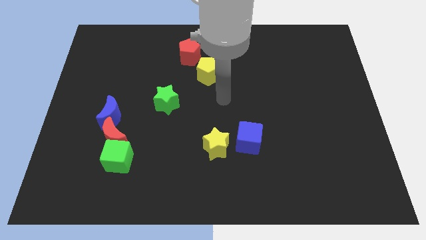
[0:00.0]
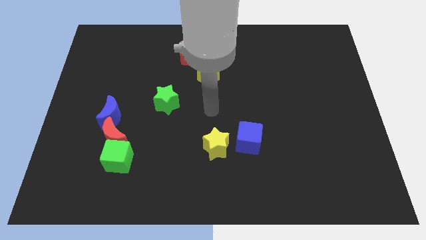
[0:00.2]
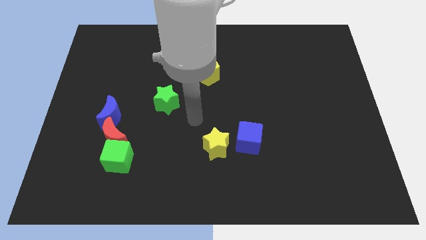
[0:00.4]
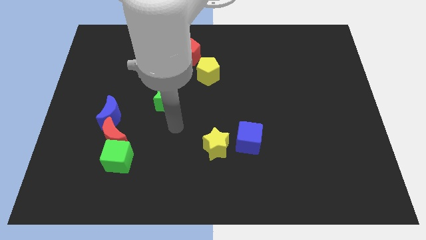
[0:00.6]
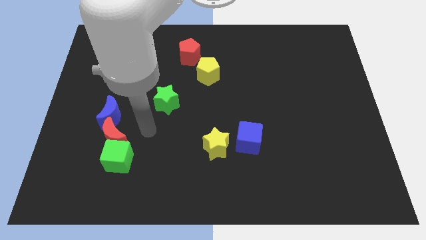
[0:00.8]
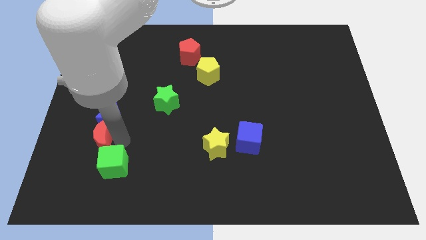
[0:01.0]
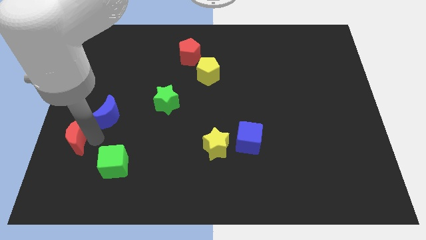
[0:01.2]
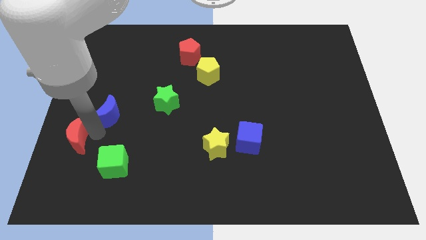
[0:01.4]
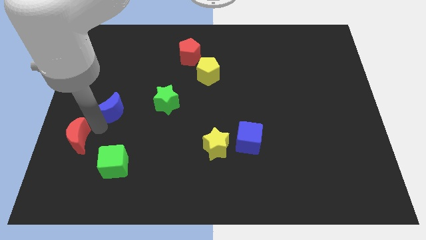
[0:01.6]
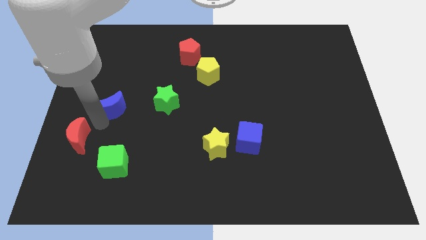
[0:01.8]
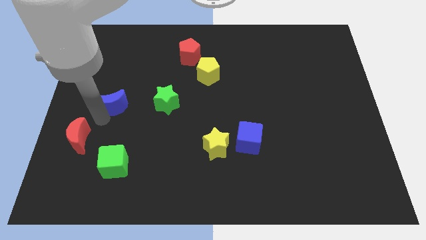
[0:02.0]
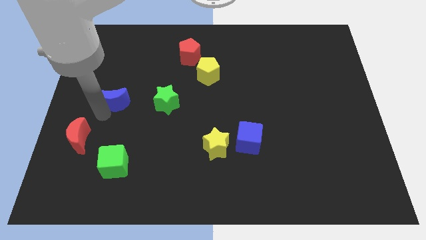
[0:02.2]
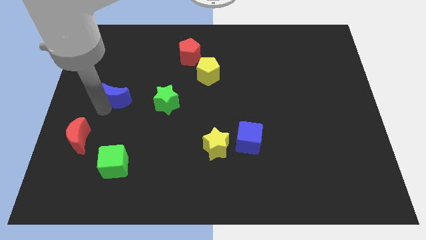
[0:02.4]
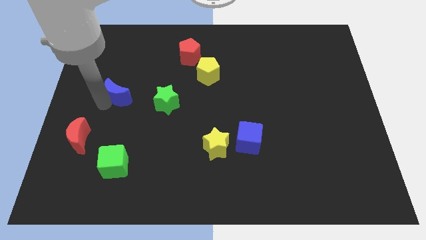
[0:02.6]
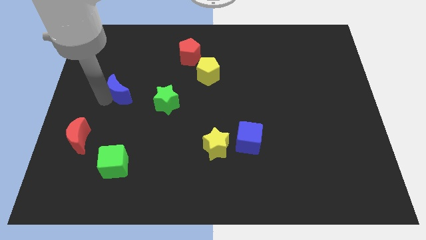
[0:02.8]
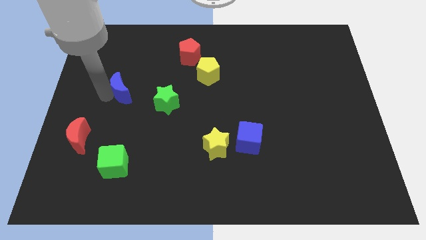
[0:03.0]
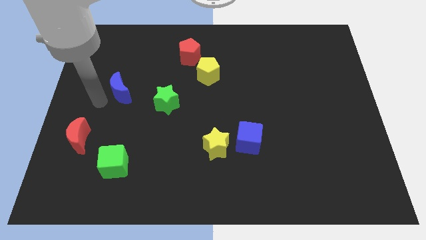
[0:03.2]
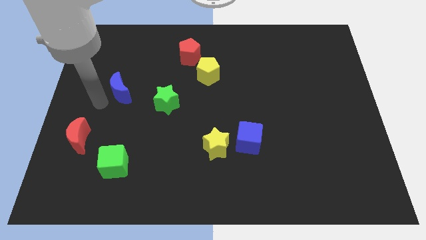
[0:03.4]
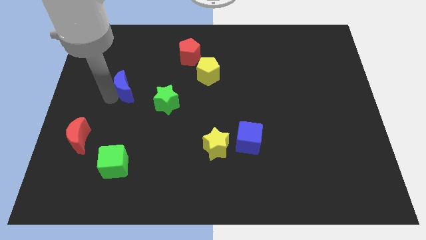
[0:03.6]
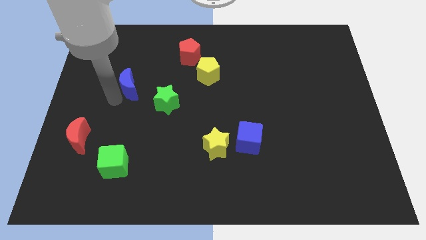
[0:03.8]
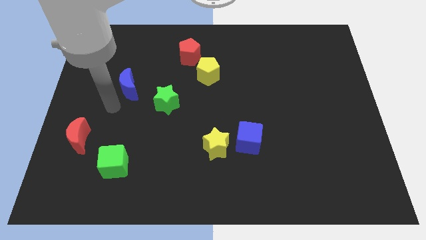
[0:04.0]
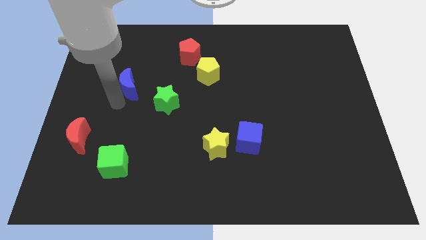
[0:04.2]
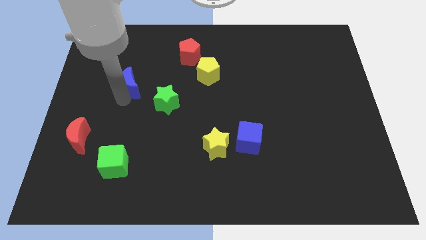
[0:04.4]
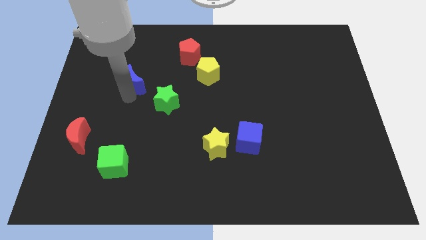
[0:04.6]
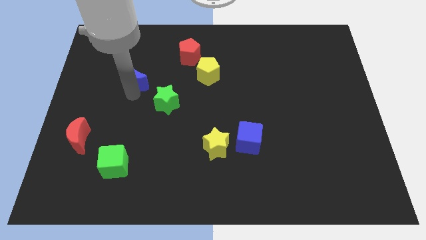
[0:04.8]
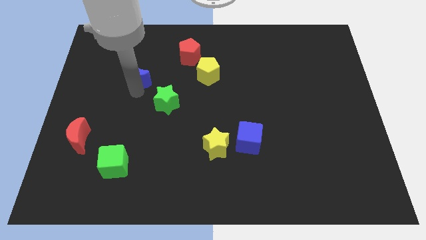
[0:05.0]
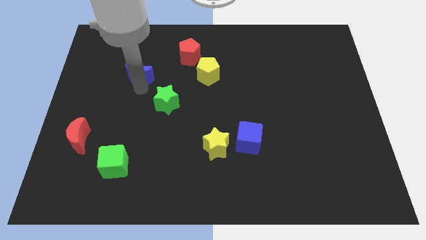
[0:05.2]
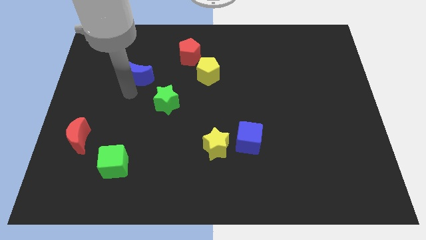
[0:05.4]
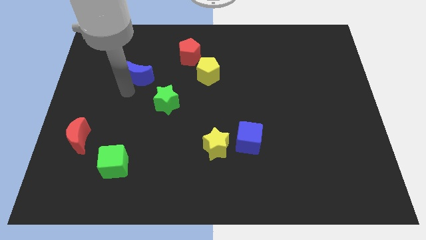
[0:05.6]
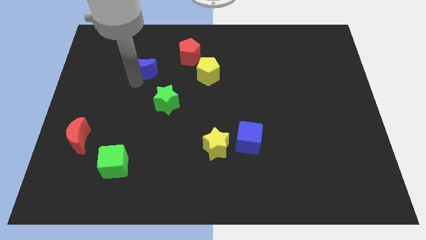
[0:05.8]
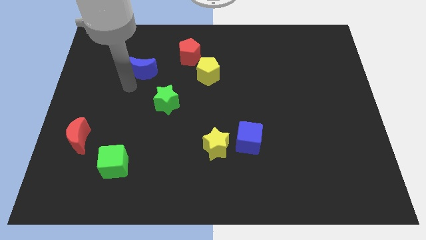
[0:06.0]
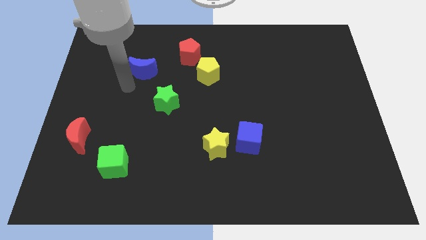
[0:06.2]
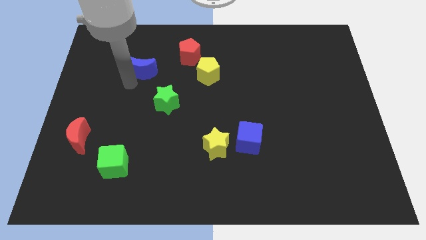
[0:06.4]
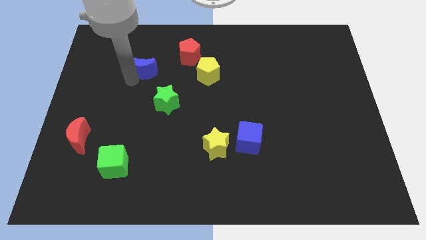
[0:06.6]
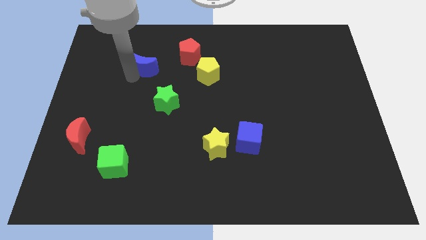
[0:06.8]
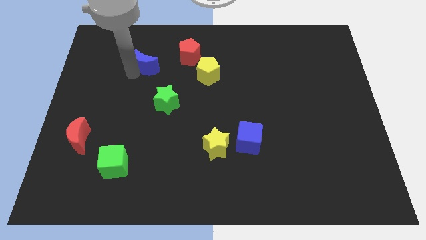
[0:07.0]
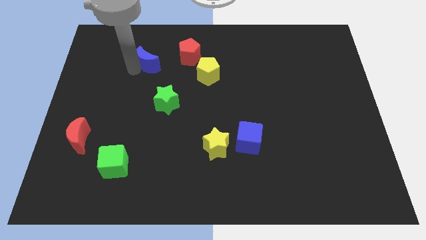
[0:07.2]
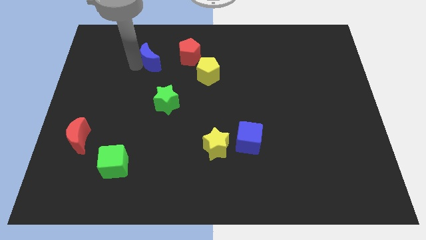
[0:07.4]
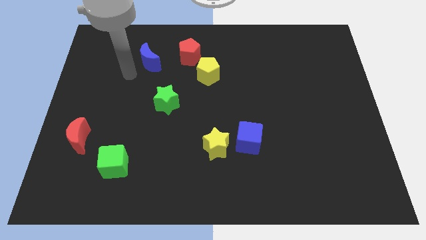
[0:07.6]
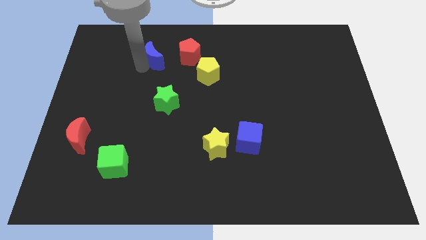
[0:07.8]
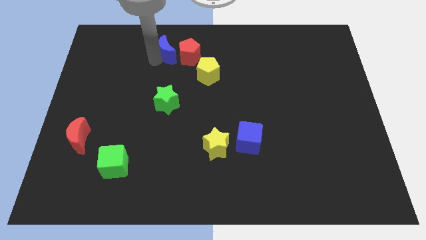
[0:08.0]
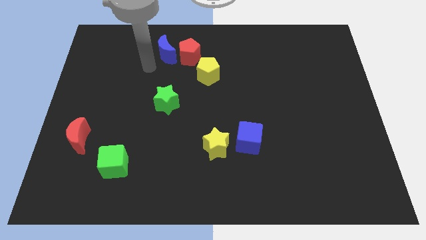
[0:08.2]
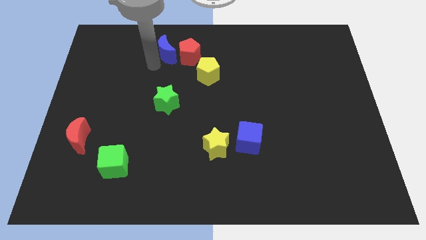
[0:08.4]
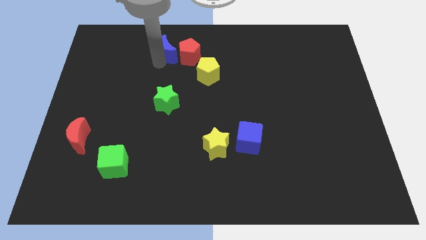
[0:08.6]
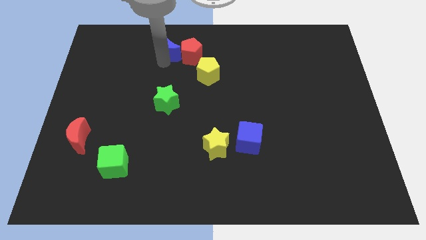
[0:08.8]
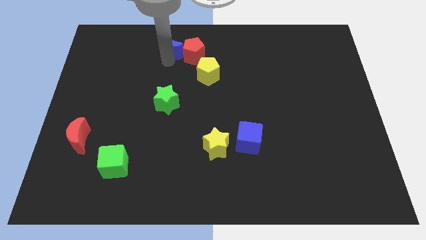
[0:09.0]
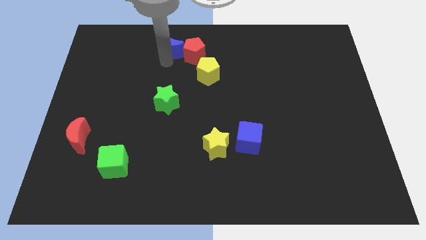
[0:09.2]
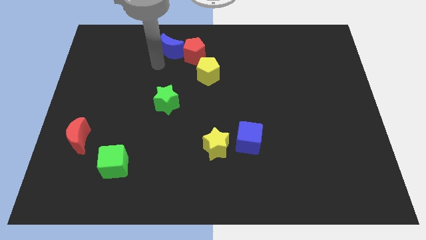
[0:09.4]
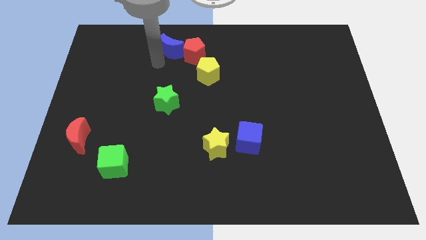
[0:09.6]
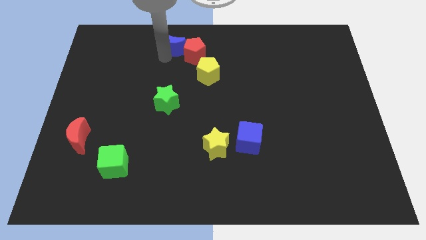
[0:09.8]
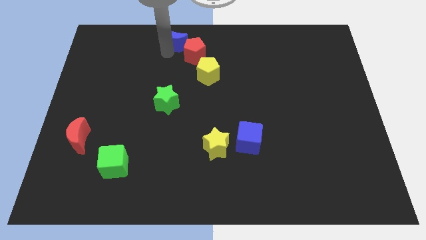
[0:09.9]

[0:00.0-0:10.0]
push the blue moon to the top

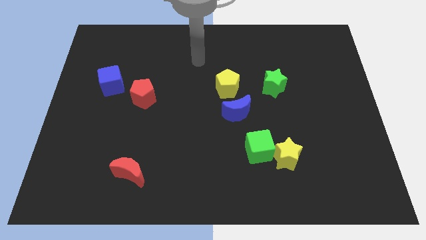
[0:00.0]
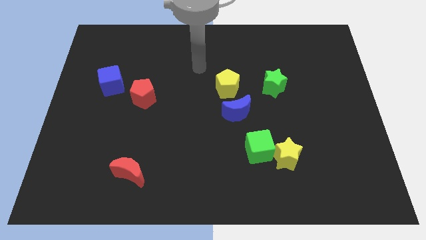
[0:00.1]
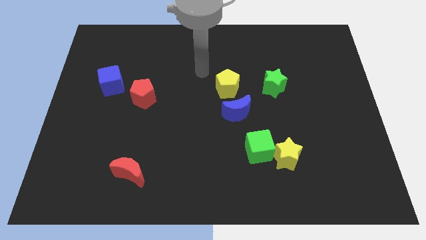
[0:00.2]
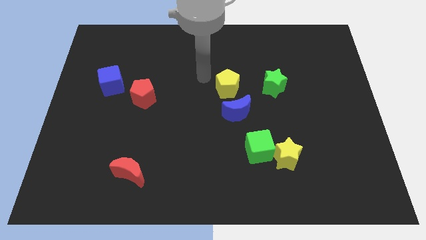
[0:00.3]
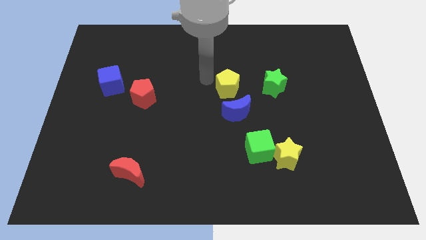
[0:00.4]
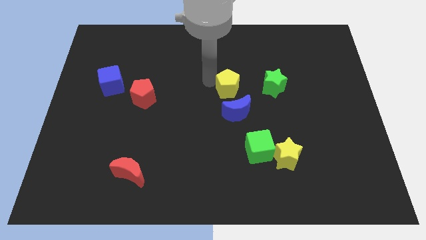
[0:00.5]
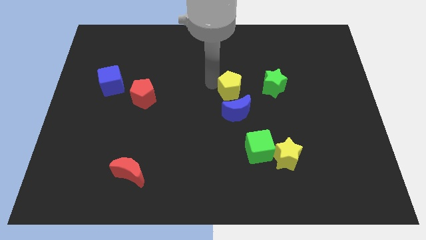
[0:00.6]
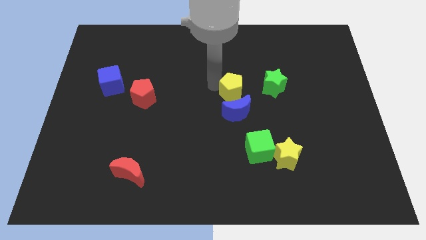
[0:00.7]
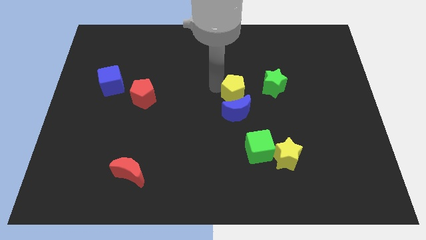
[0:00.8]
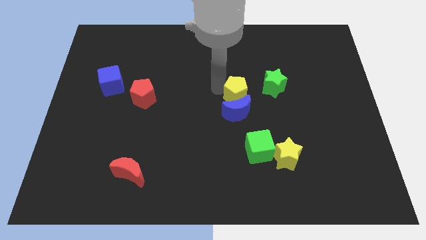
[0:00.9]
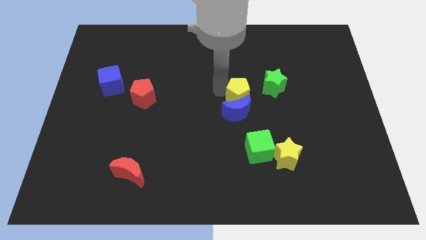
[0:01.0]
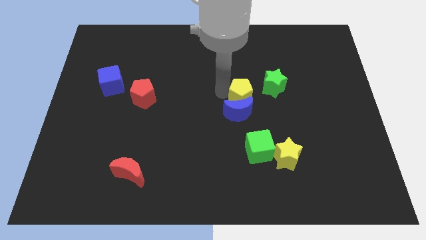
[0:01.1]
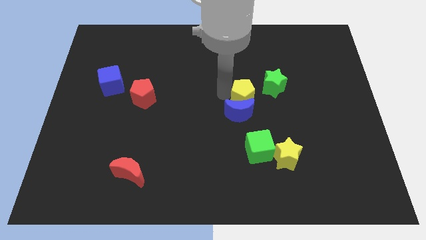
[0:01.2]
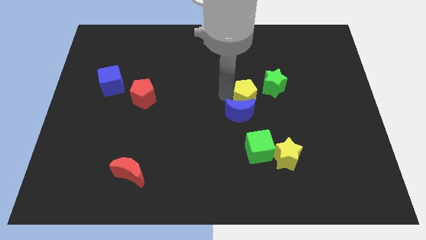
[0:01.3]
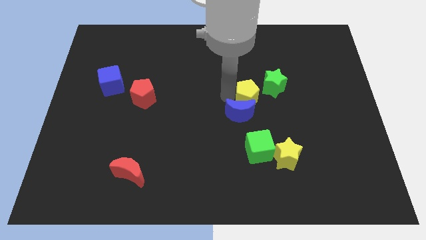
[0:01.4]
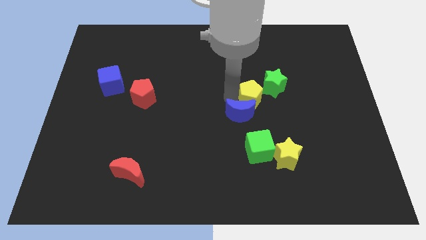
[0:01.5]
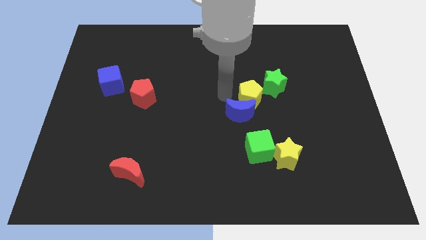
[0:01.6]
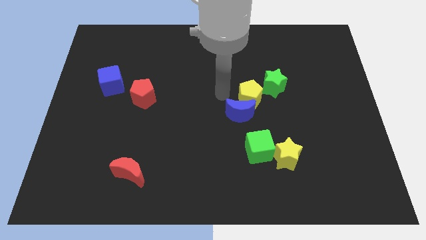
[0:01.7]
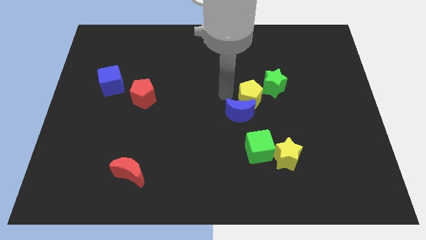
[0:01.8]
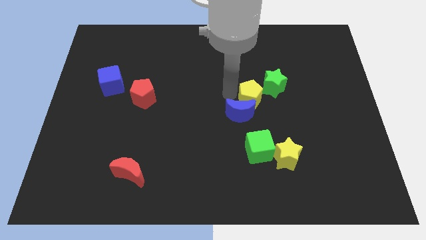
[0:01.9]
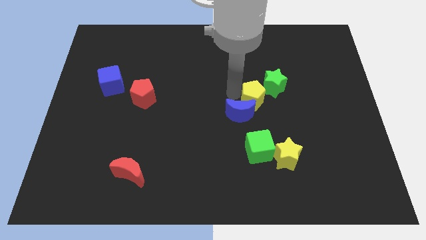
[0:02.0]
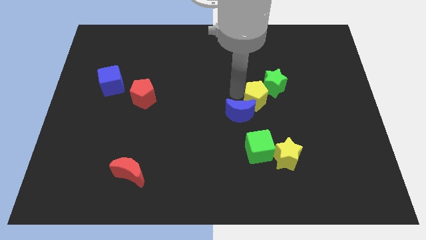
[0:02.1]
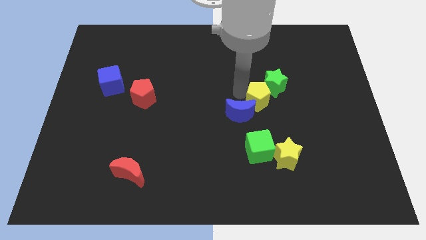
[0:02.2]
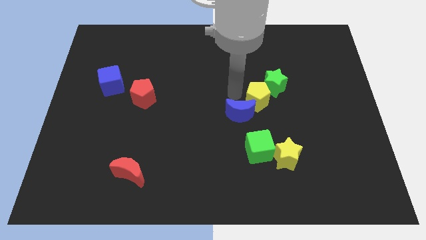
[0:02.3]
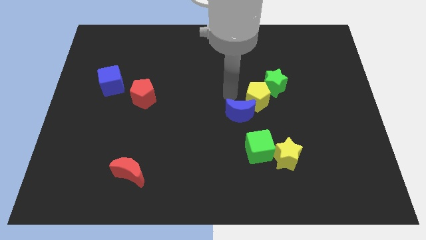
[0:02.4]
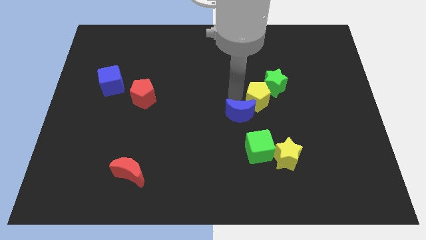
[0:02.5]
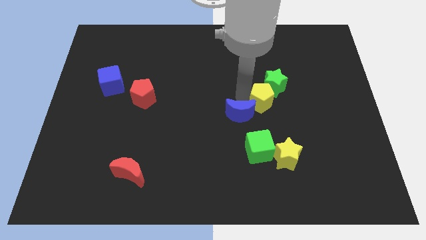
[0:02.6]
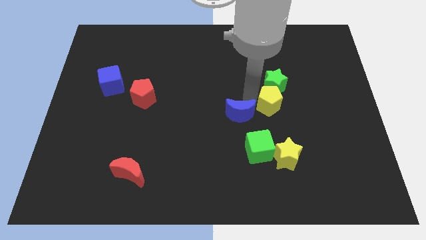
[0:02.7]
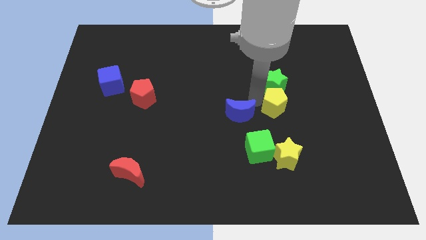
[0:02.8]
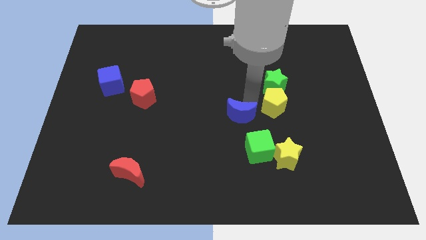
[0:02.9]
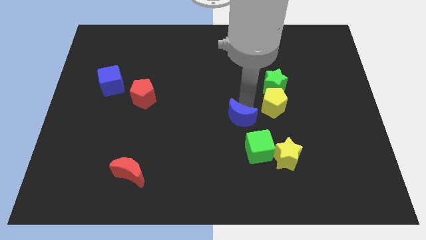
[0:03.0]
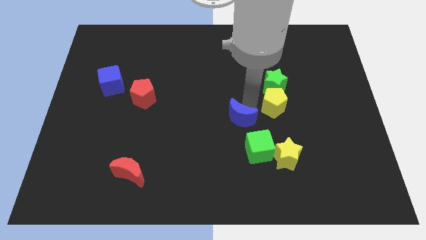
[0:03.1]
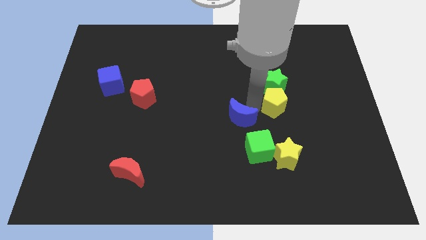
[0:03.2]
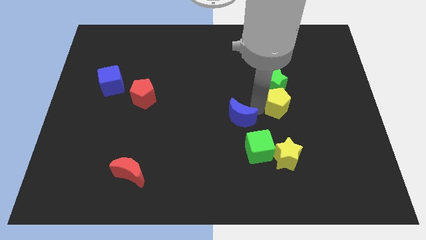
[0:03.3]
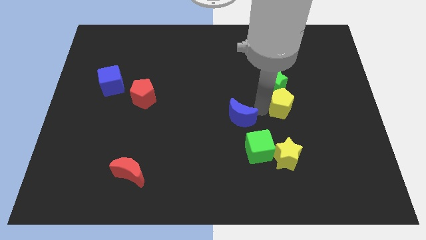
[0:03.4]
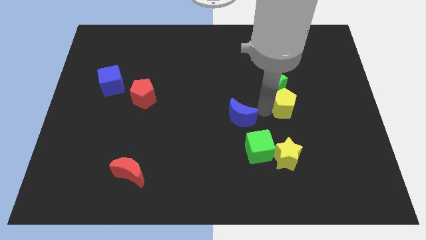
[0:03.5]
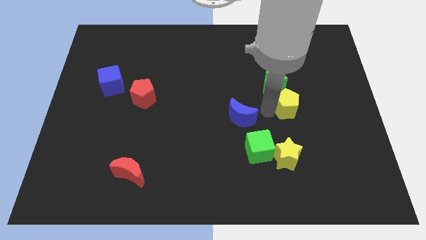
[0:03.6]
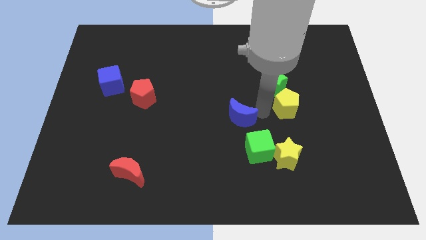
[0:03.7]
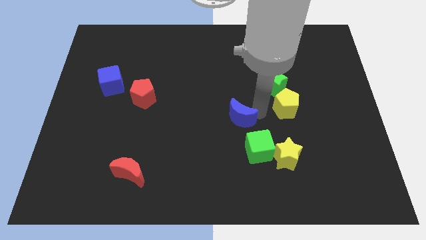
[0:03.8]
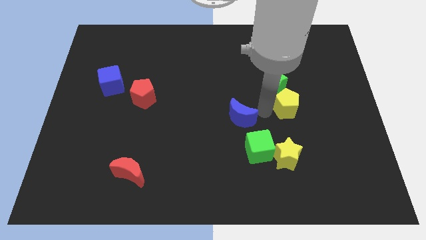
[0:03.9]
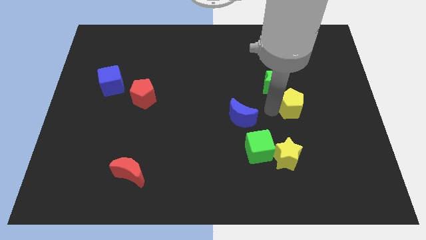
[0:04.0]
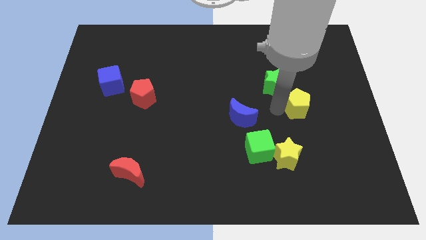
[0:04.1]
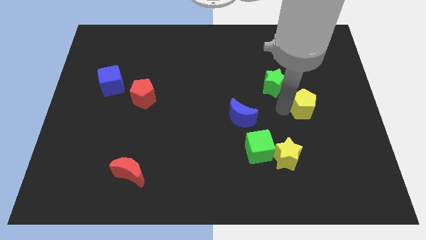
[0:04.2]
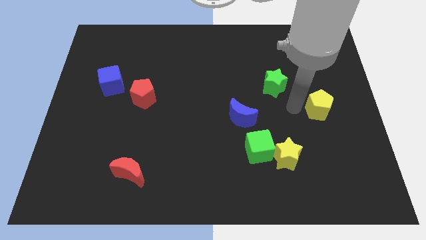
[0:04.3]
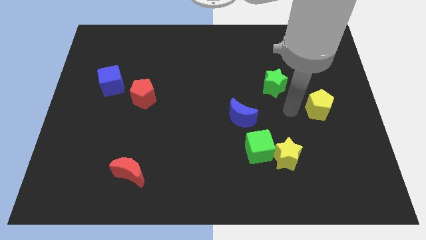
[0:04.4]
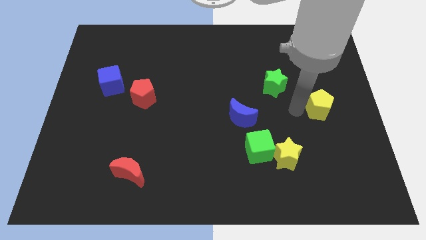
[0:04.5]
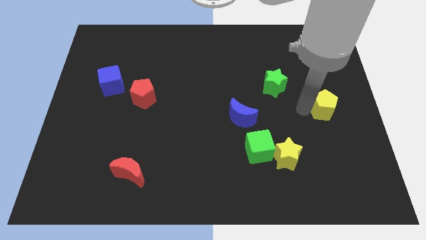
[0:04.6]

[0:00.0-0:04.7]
slide the yellow pentagon to the right side of the board
